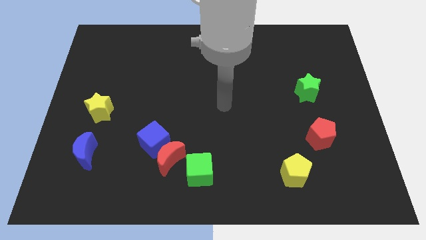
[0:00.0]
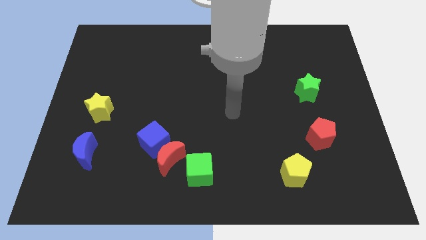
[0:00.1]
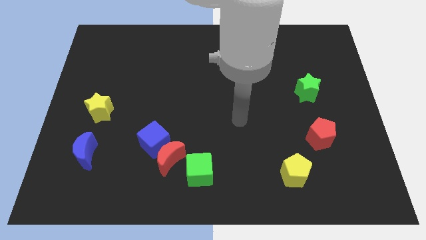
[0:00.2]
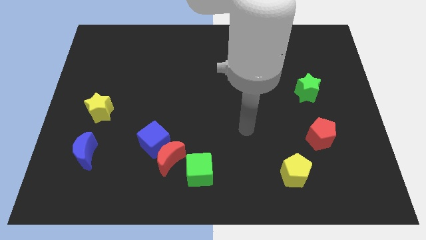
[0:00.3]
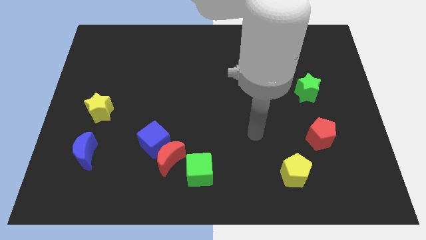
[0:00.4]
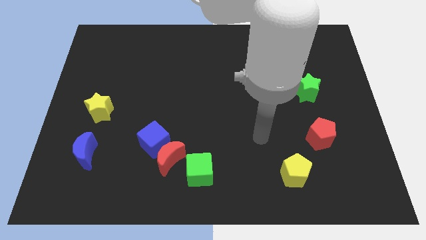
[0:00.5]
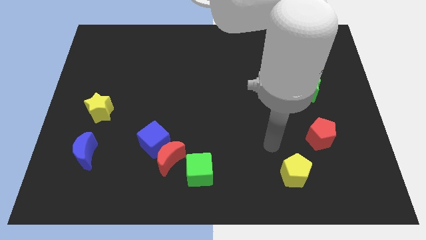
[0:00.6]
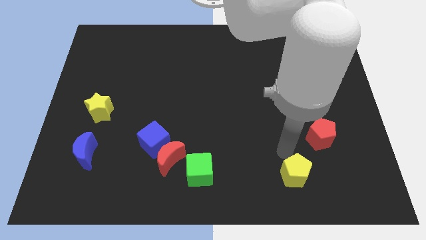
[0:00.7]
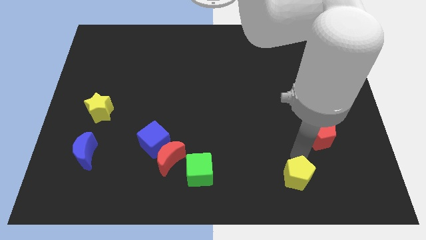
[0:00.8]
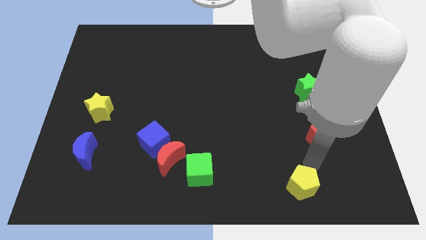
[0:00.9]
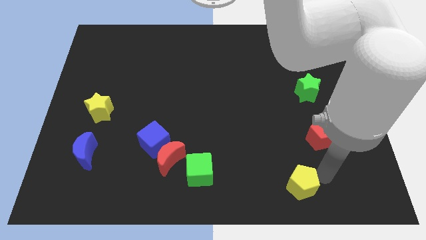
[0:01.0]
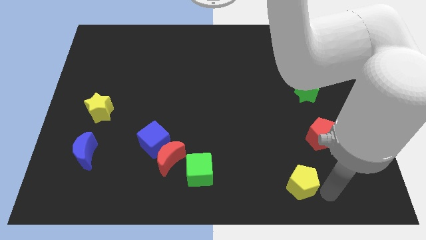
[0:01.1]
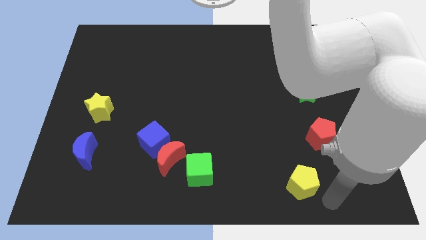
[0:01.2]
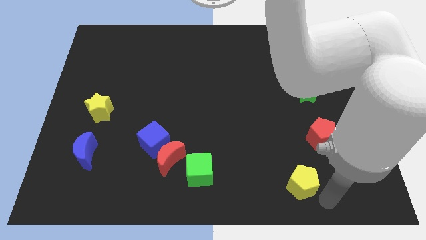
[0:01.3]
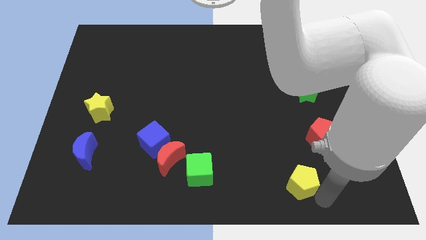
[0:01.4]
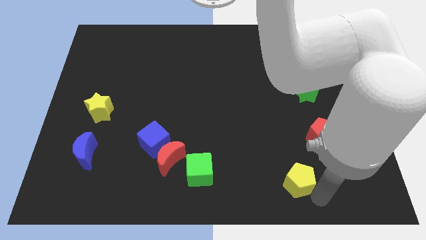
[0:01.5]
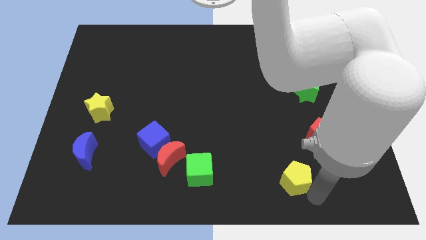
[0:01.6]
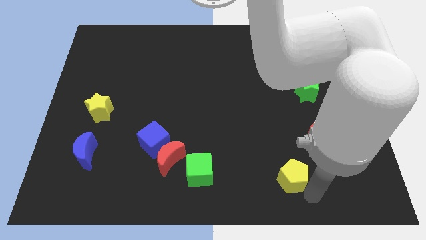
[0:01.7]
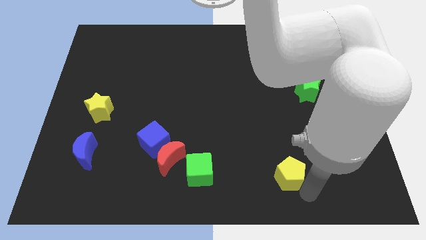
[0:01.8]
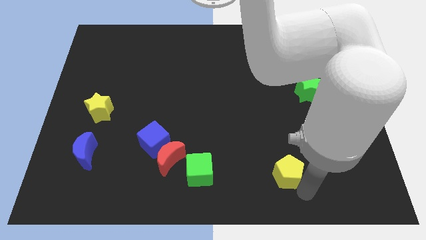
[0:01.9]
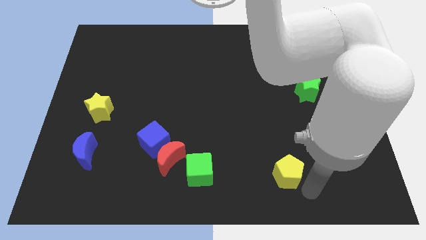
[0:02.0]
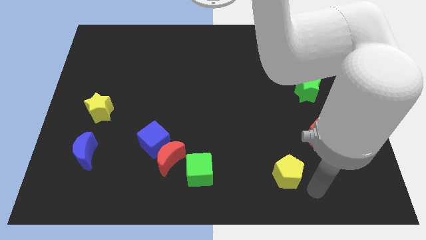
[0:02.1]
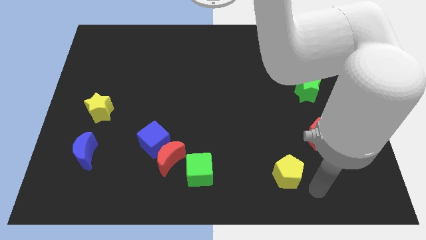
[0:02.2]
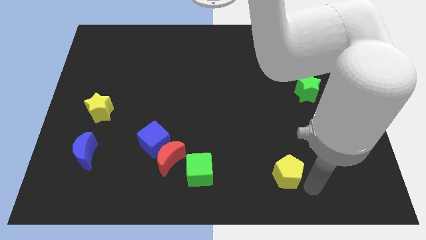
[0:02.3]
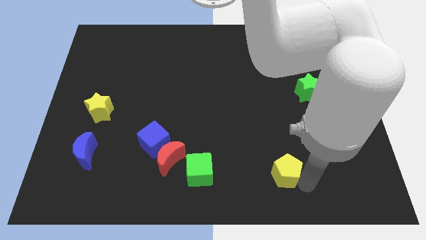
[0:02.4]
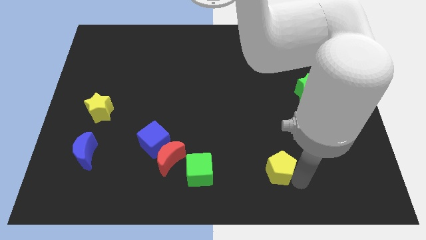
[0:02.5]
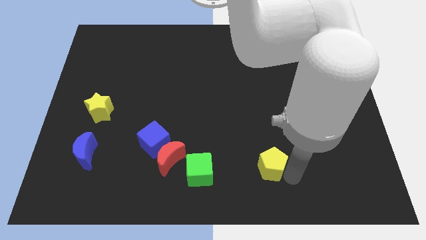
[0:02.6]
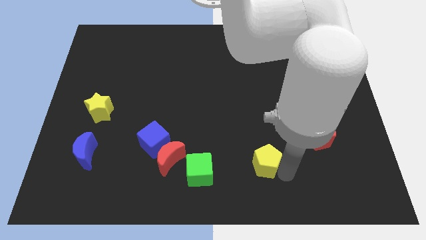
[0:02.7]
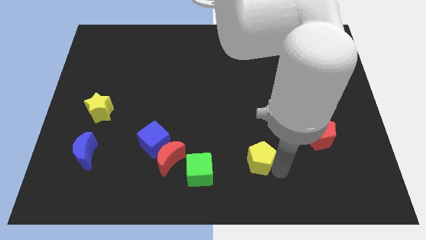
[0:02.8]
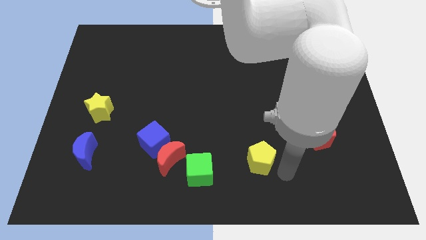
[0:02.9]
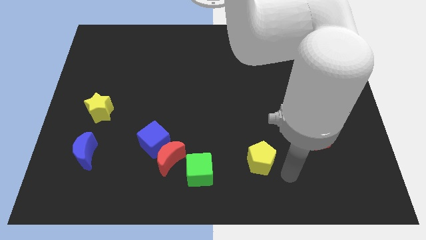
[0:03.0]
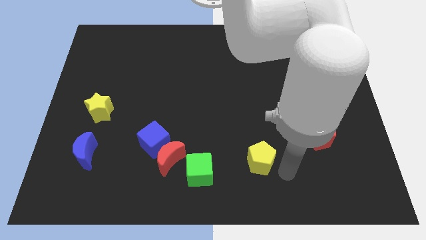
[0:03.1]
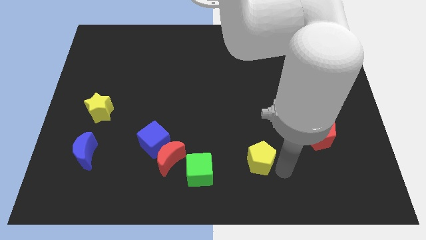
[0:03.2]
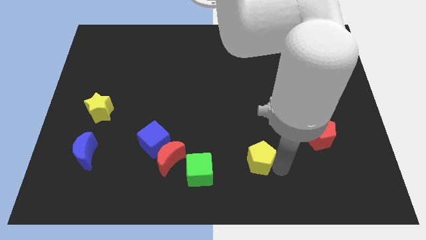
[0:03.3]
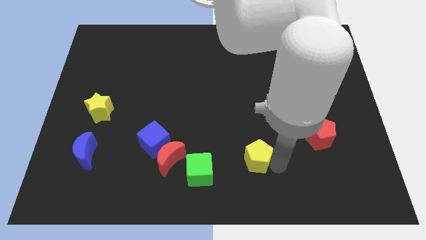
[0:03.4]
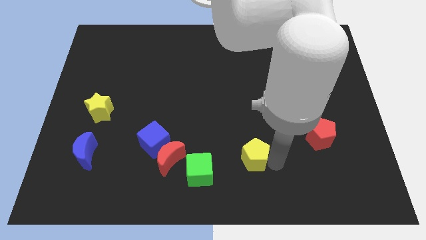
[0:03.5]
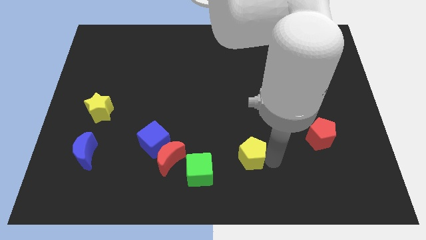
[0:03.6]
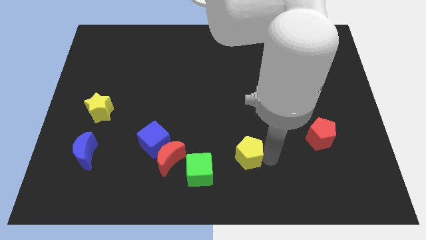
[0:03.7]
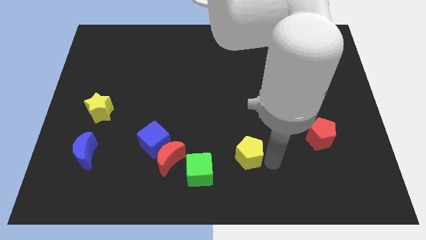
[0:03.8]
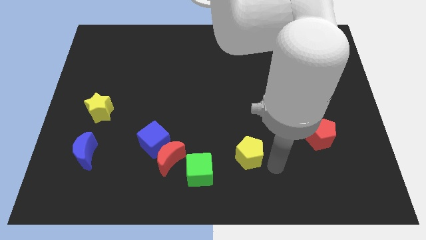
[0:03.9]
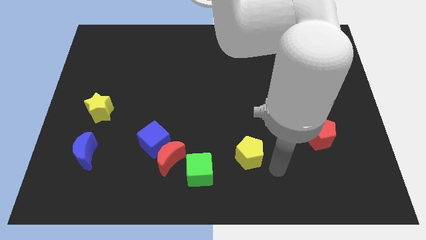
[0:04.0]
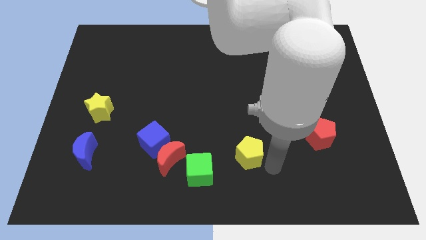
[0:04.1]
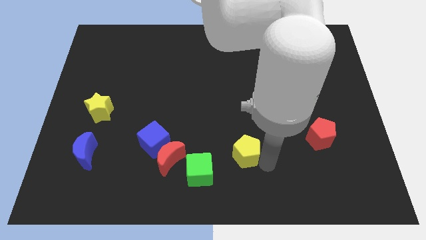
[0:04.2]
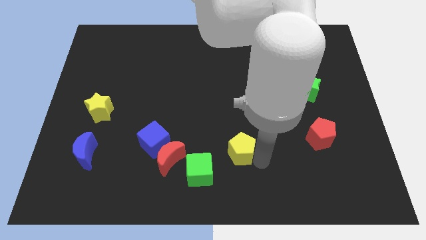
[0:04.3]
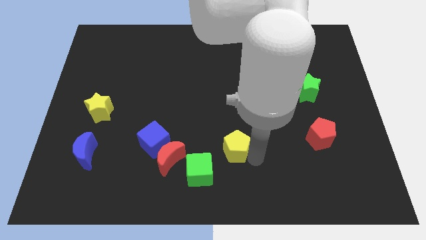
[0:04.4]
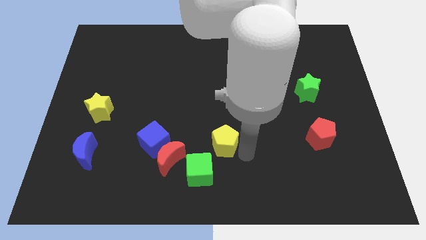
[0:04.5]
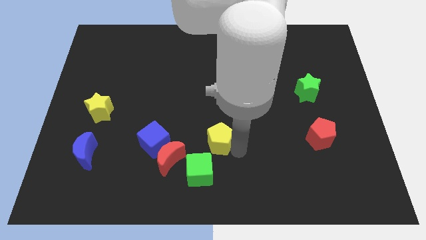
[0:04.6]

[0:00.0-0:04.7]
move the yellow pentagon to the top of the green cube

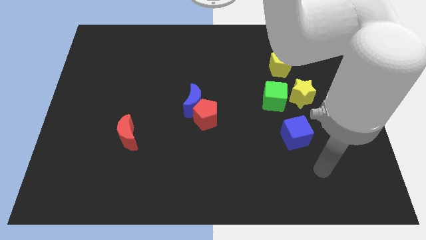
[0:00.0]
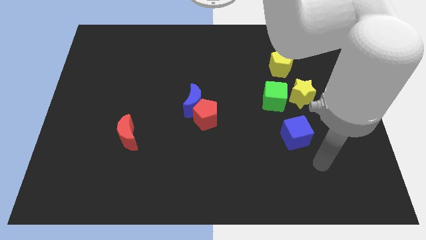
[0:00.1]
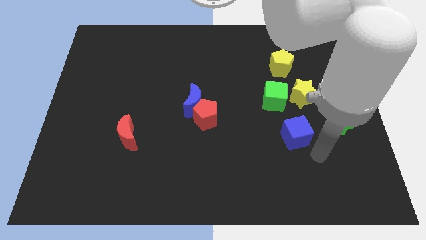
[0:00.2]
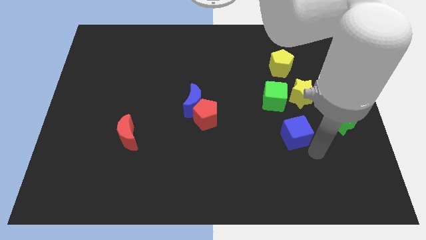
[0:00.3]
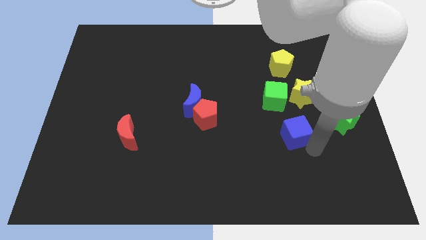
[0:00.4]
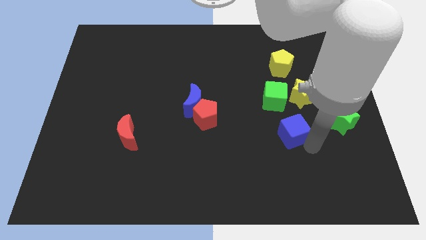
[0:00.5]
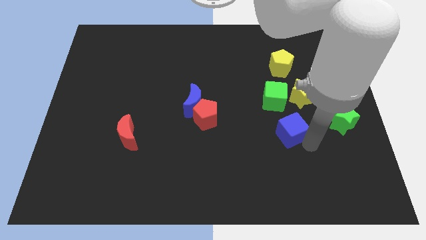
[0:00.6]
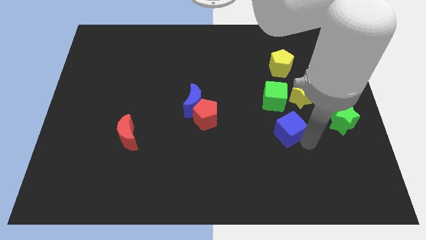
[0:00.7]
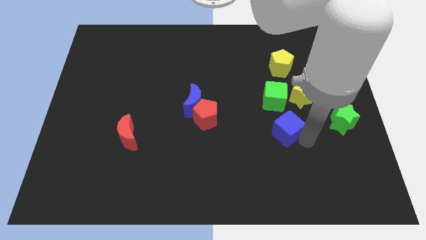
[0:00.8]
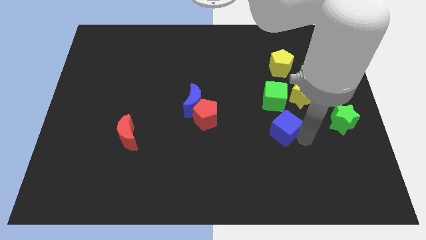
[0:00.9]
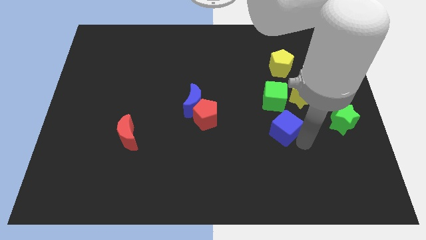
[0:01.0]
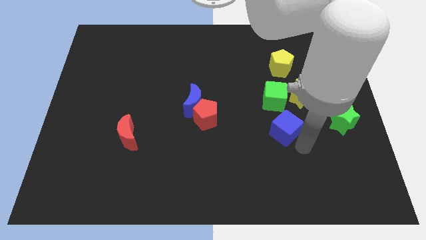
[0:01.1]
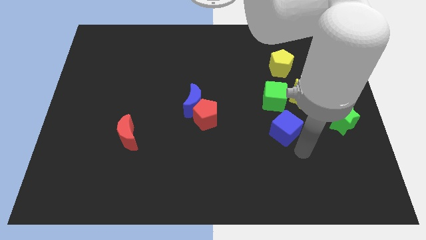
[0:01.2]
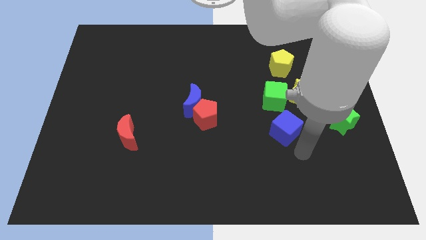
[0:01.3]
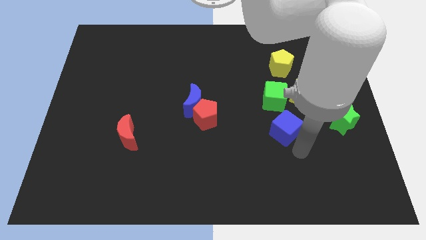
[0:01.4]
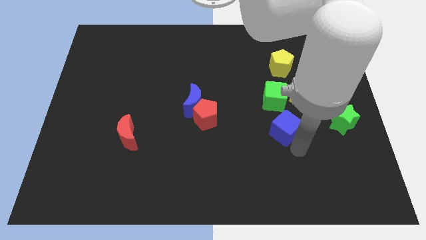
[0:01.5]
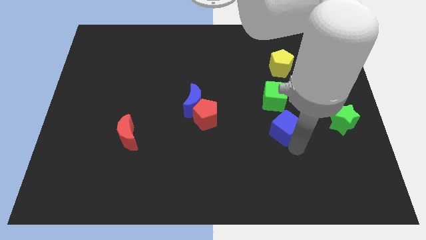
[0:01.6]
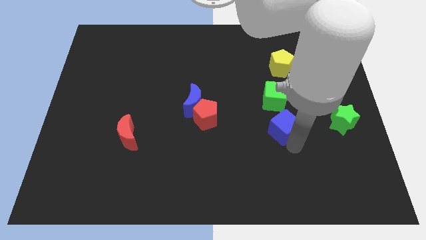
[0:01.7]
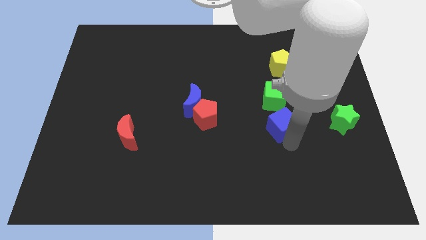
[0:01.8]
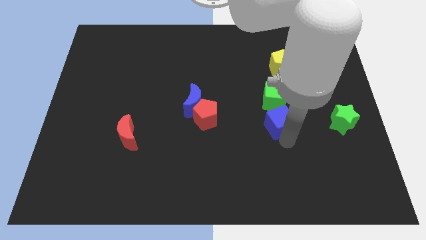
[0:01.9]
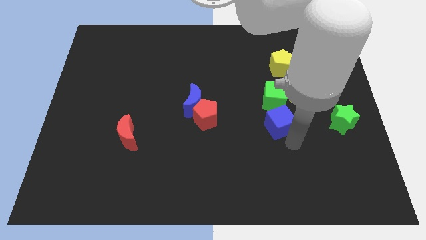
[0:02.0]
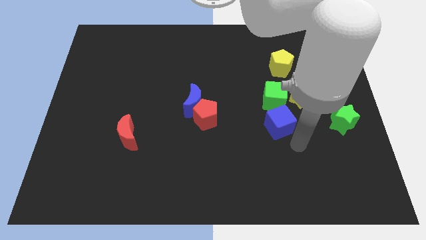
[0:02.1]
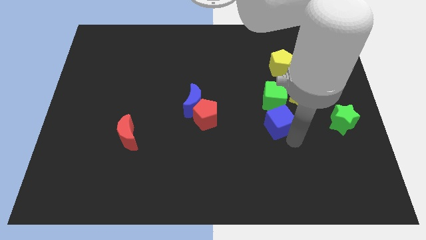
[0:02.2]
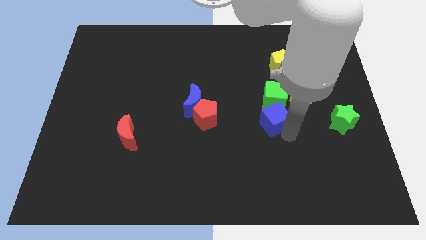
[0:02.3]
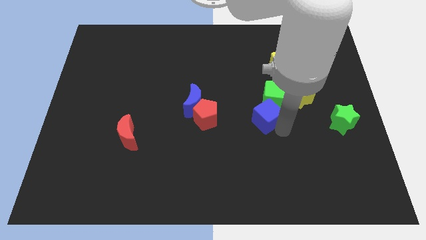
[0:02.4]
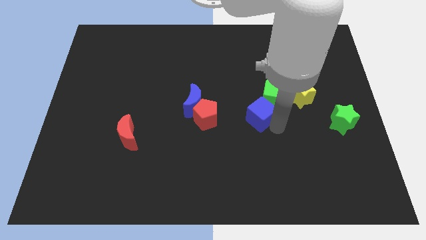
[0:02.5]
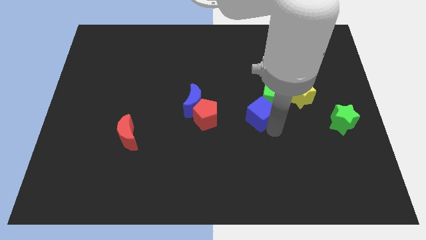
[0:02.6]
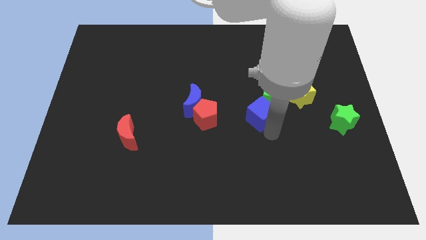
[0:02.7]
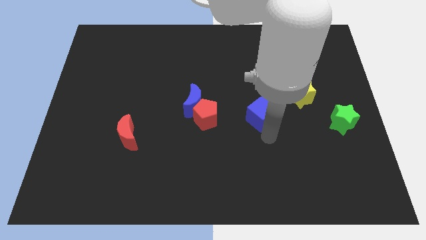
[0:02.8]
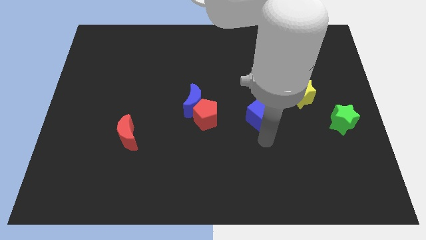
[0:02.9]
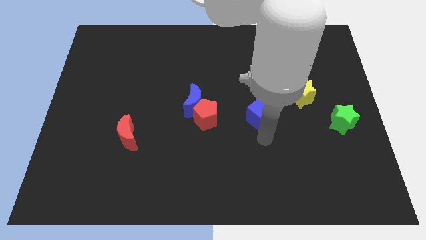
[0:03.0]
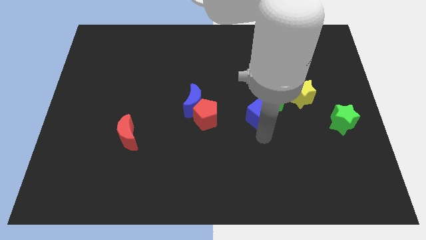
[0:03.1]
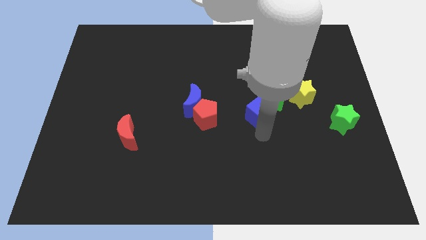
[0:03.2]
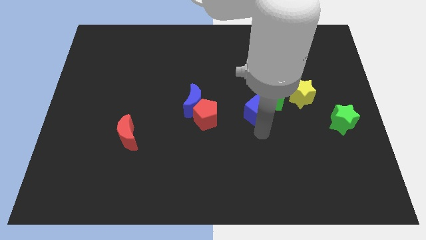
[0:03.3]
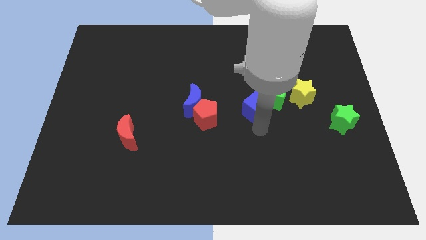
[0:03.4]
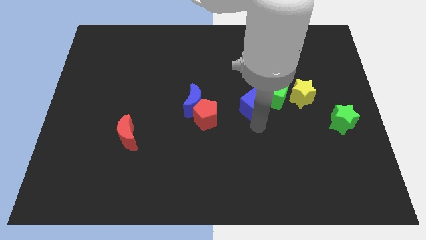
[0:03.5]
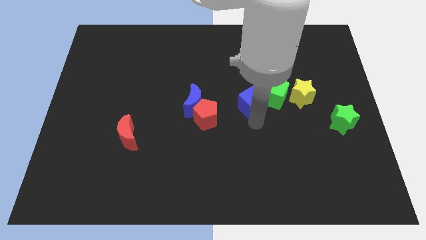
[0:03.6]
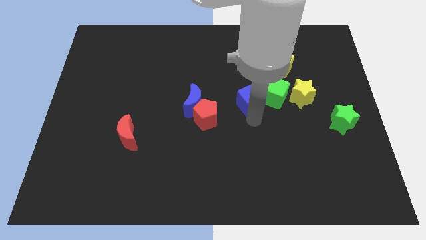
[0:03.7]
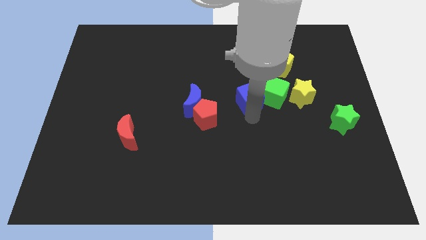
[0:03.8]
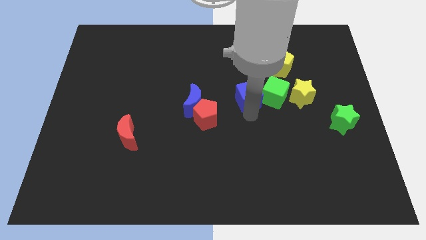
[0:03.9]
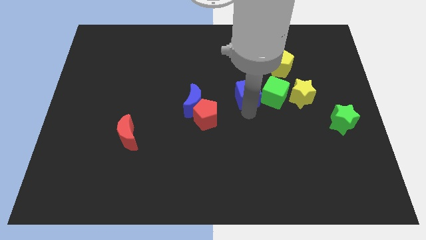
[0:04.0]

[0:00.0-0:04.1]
push the blue cube to the top left side of the green cube
